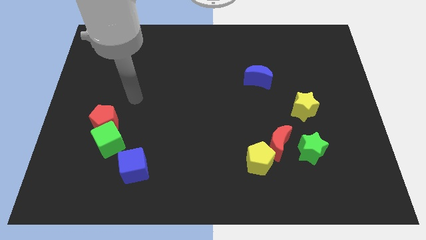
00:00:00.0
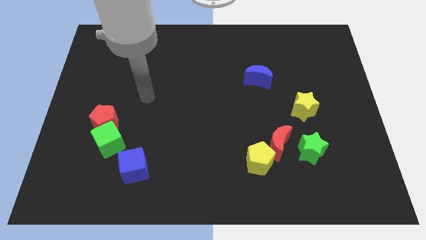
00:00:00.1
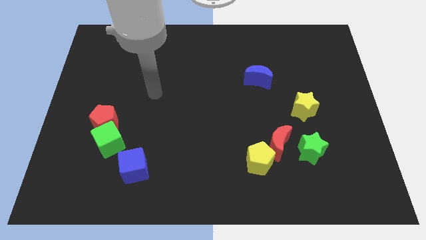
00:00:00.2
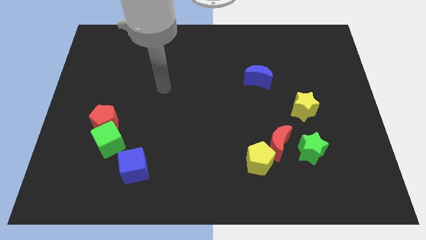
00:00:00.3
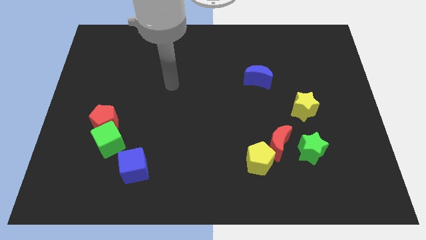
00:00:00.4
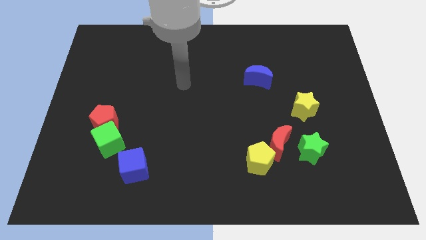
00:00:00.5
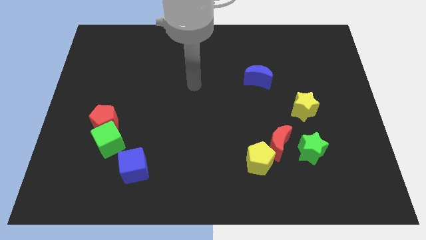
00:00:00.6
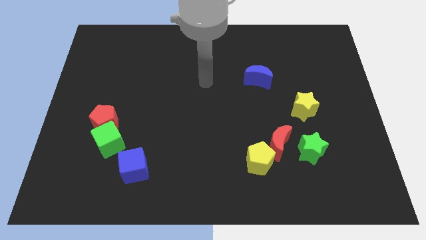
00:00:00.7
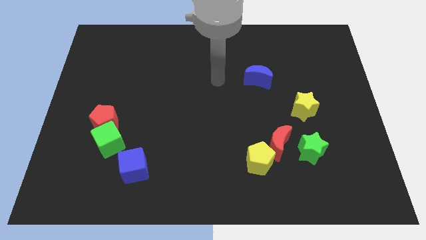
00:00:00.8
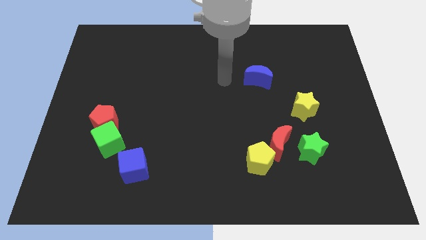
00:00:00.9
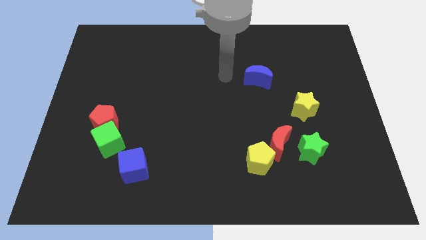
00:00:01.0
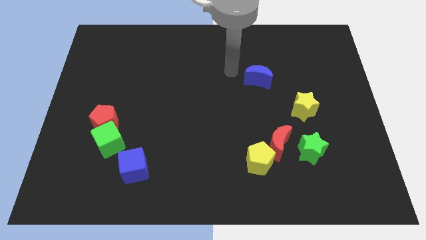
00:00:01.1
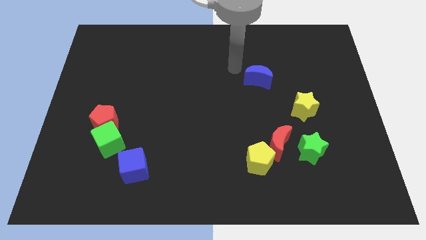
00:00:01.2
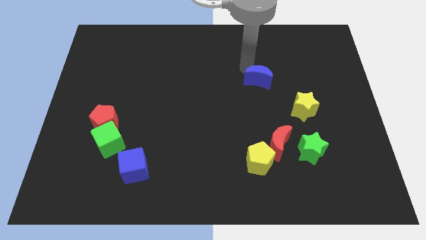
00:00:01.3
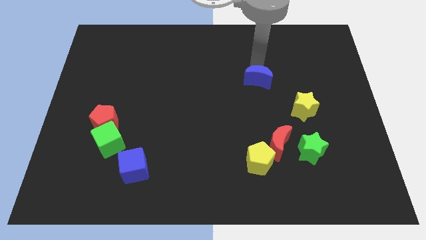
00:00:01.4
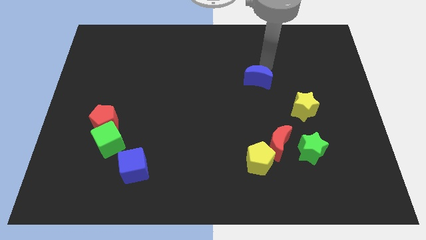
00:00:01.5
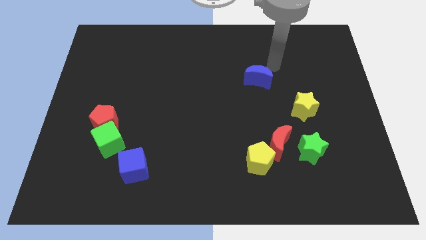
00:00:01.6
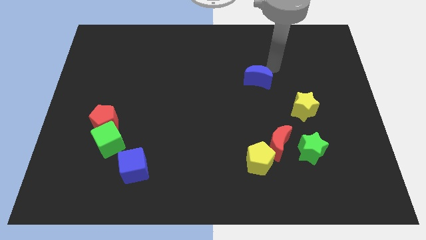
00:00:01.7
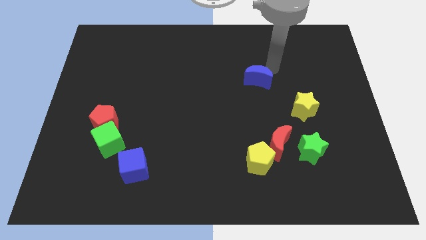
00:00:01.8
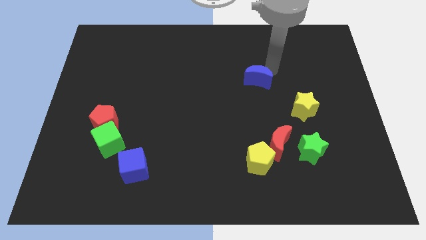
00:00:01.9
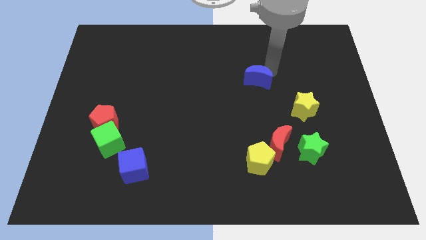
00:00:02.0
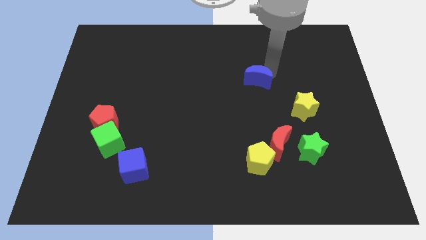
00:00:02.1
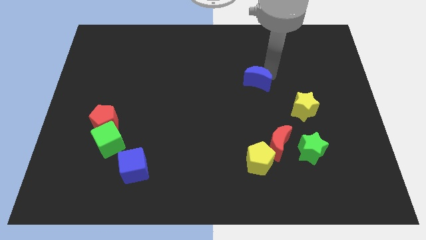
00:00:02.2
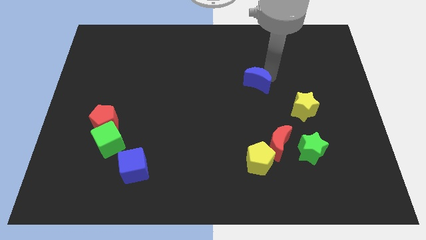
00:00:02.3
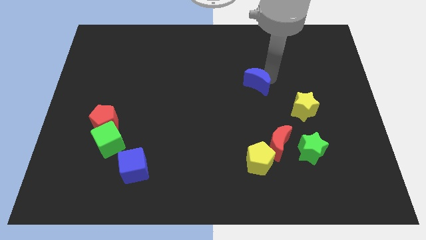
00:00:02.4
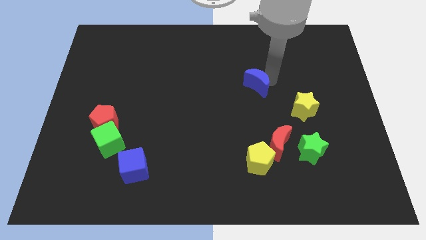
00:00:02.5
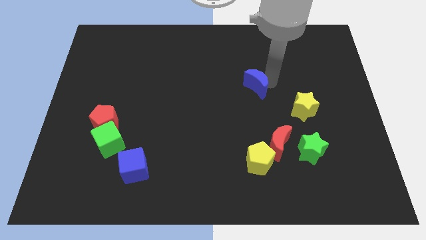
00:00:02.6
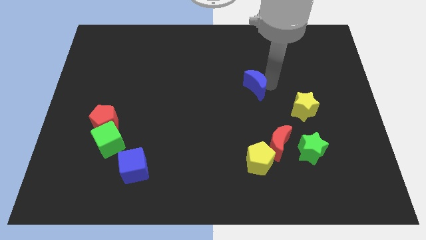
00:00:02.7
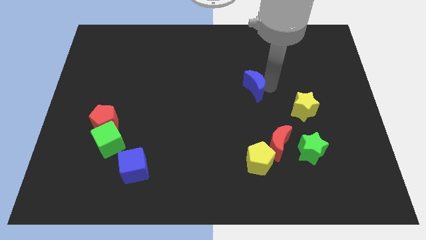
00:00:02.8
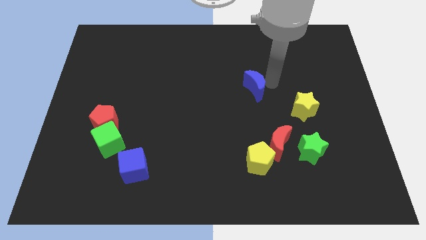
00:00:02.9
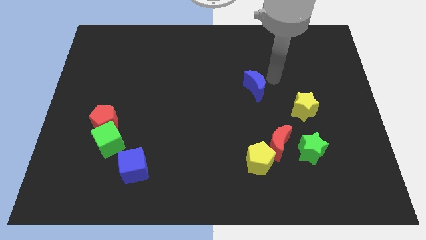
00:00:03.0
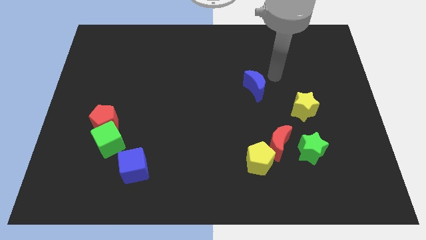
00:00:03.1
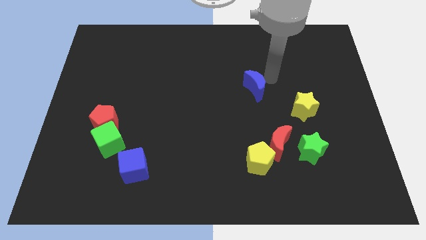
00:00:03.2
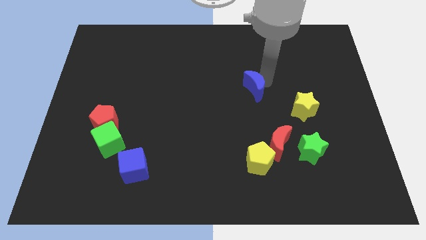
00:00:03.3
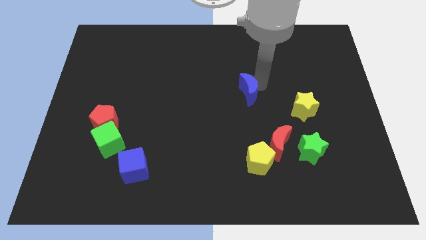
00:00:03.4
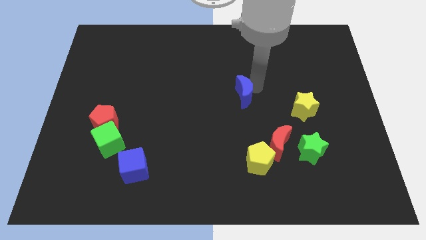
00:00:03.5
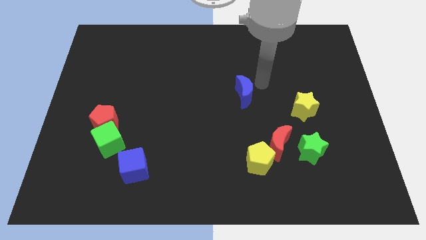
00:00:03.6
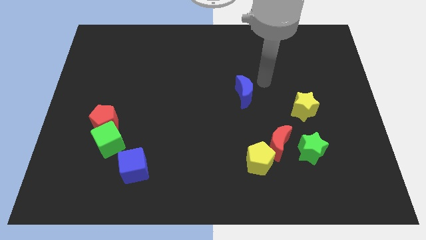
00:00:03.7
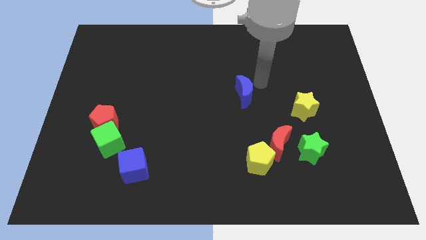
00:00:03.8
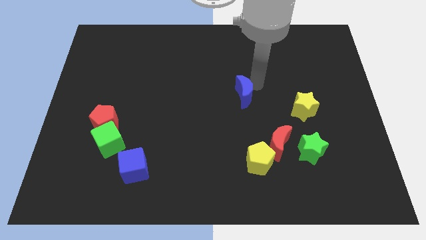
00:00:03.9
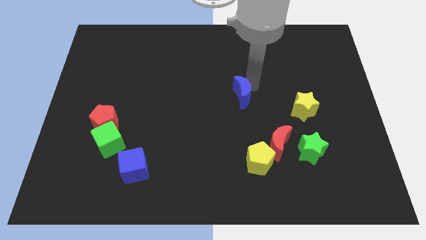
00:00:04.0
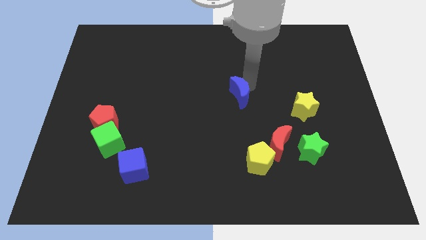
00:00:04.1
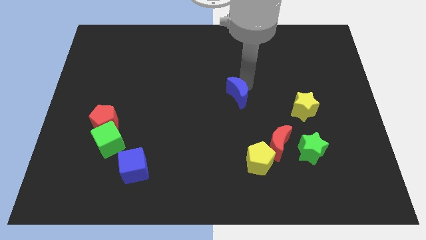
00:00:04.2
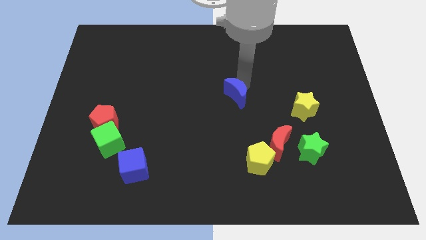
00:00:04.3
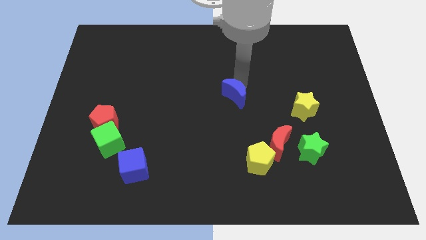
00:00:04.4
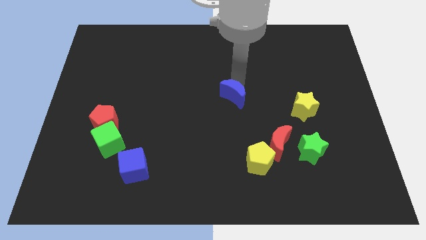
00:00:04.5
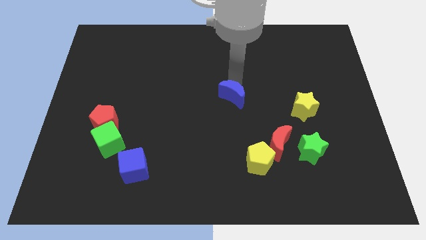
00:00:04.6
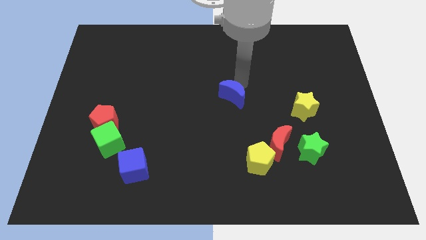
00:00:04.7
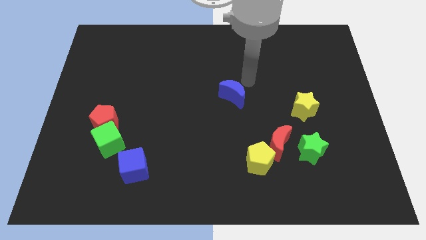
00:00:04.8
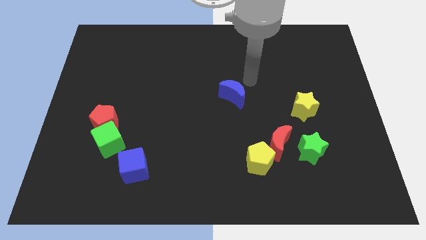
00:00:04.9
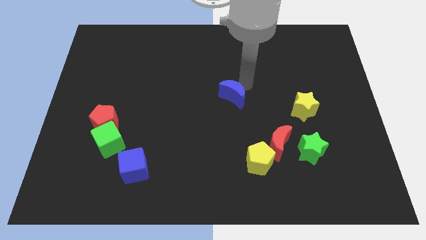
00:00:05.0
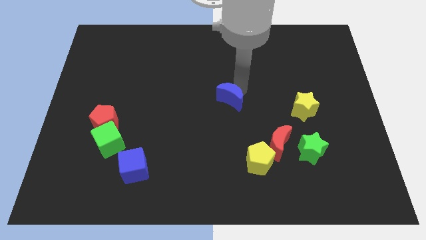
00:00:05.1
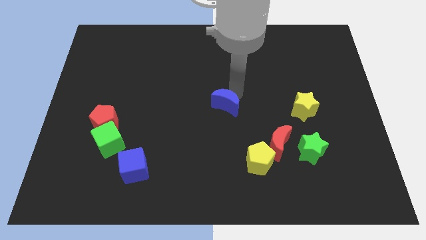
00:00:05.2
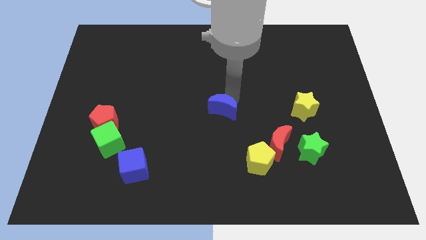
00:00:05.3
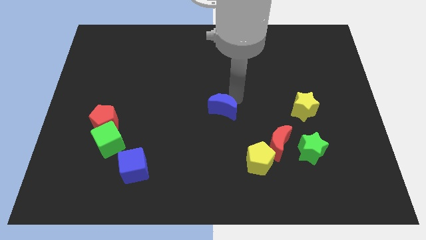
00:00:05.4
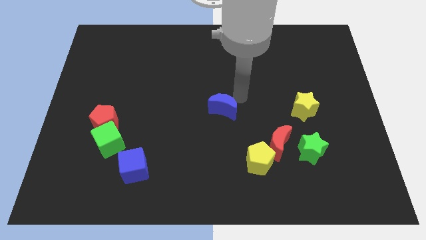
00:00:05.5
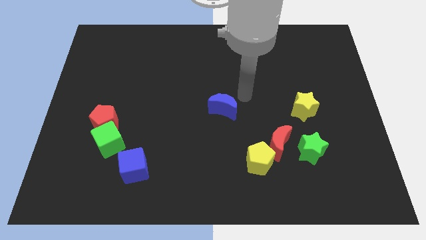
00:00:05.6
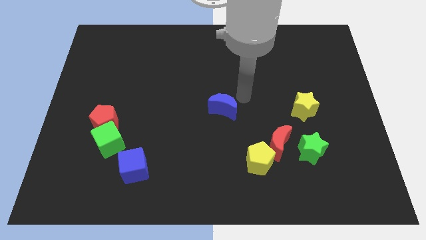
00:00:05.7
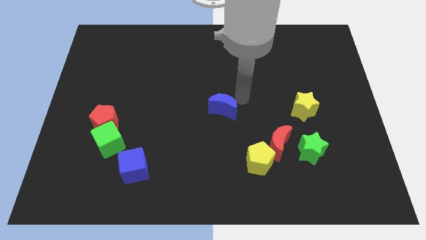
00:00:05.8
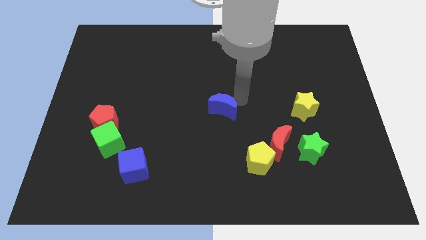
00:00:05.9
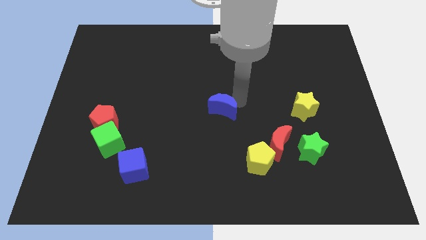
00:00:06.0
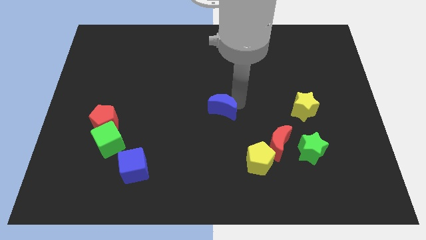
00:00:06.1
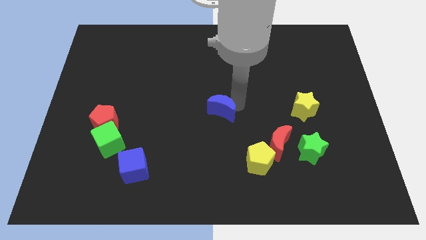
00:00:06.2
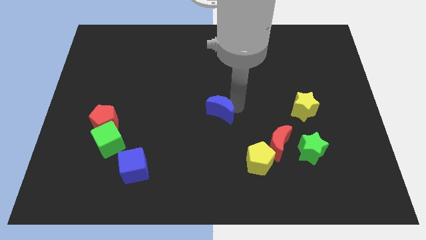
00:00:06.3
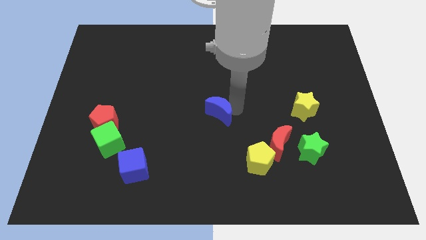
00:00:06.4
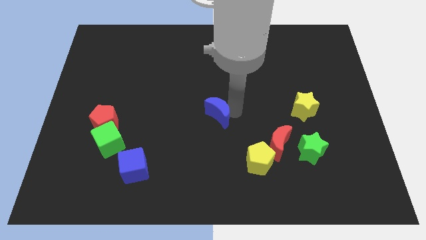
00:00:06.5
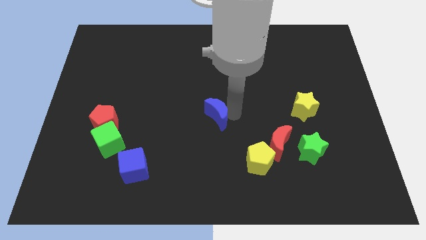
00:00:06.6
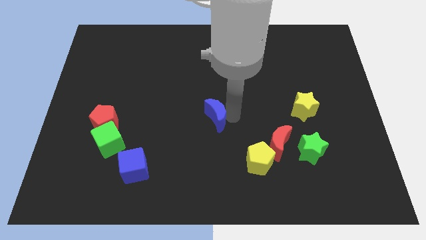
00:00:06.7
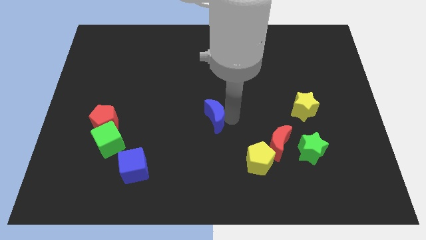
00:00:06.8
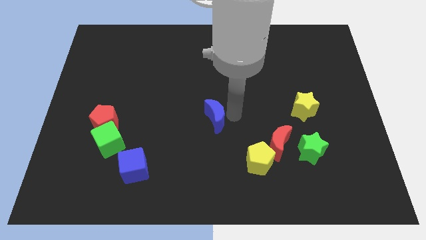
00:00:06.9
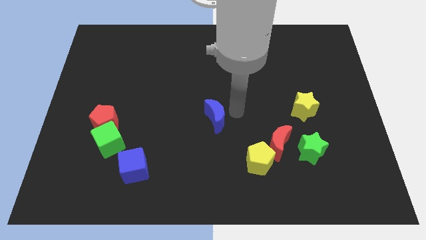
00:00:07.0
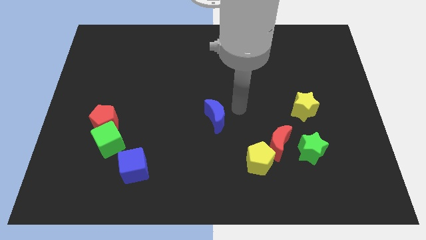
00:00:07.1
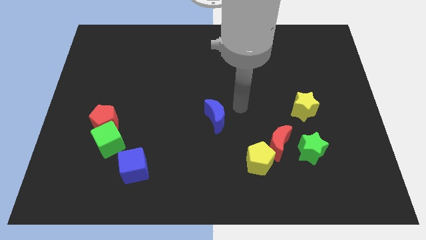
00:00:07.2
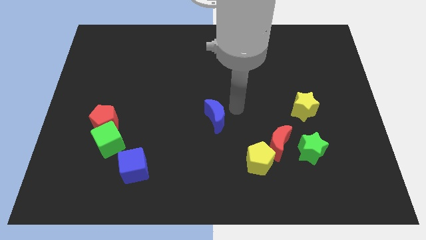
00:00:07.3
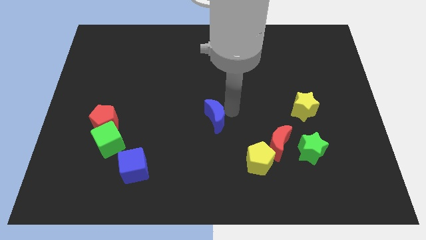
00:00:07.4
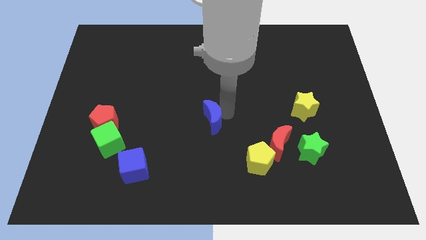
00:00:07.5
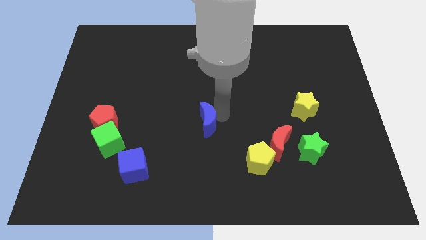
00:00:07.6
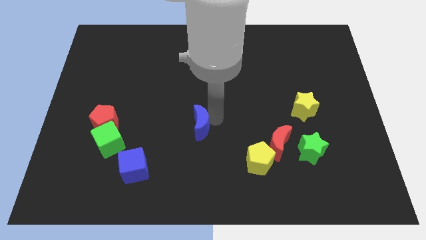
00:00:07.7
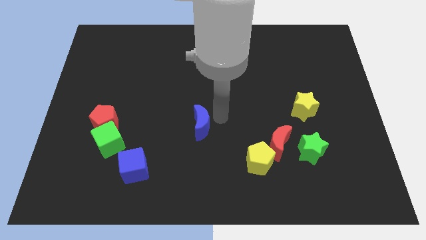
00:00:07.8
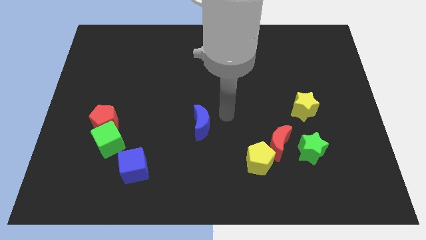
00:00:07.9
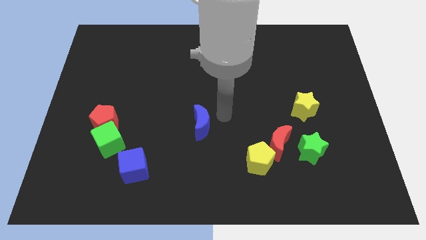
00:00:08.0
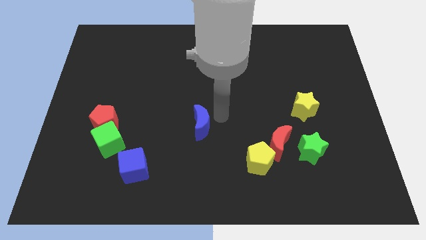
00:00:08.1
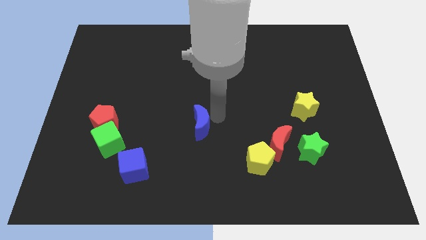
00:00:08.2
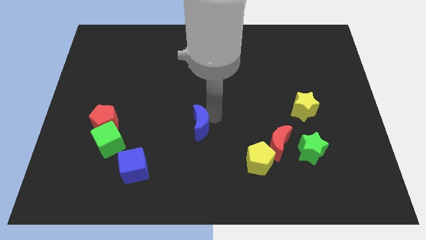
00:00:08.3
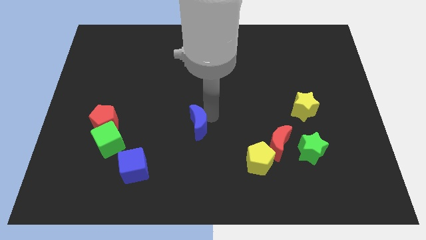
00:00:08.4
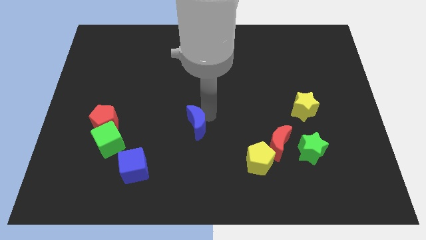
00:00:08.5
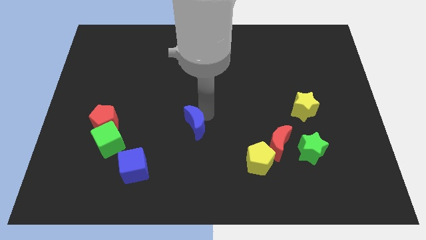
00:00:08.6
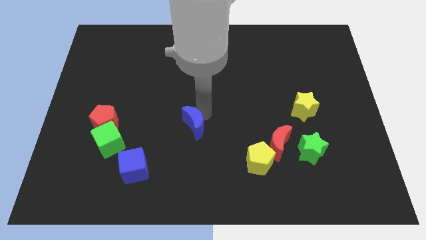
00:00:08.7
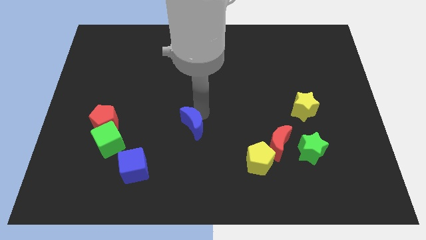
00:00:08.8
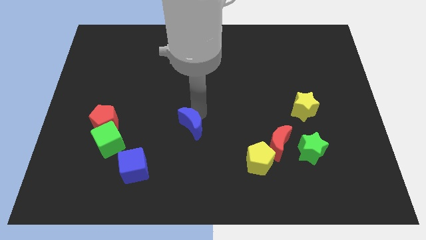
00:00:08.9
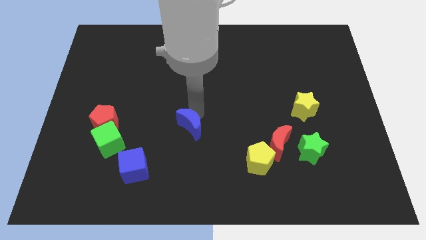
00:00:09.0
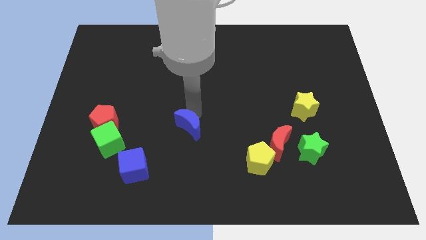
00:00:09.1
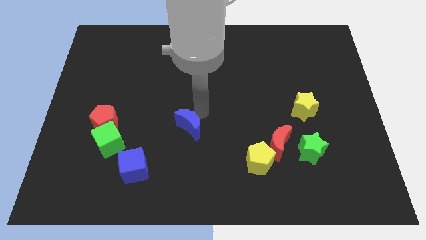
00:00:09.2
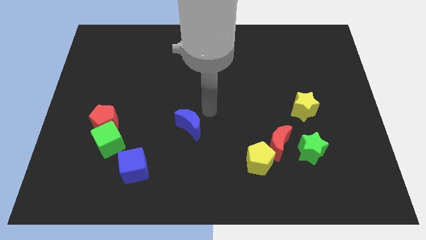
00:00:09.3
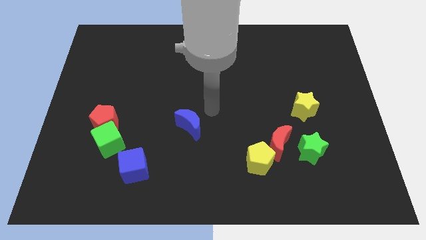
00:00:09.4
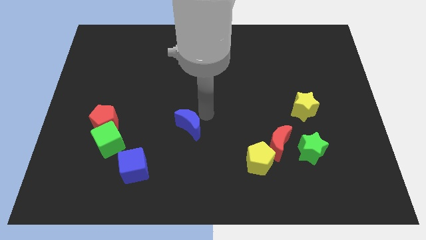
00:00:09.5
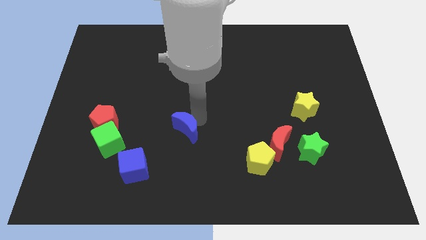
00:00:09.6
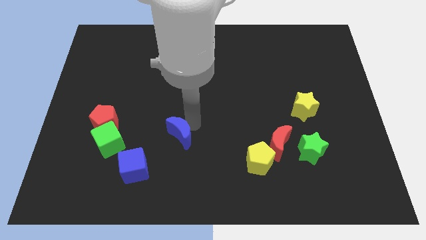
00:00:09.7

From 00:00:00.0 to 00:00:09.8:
move the blue moon to the top right of the blue cube
